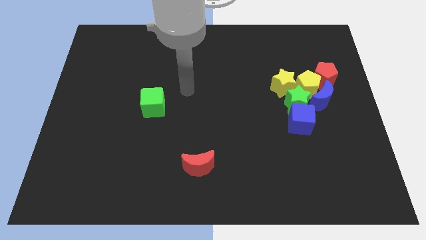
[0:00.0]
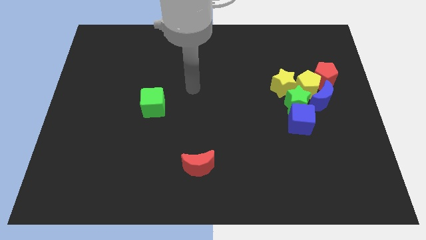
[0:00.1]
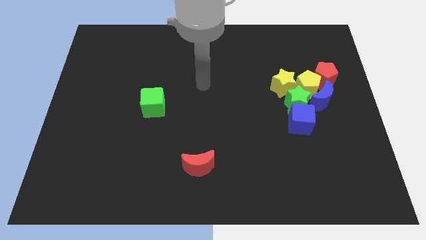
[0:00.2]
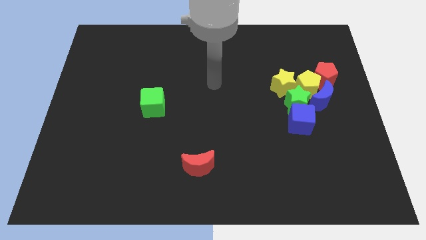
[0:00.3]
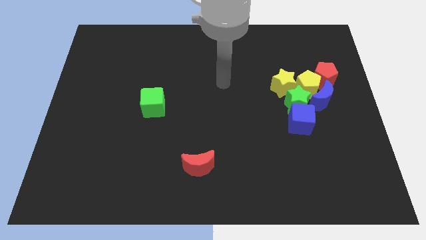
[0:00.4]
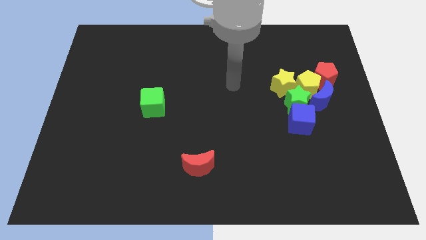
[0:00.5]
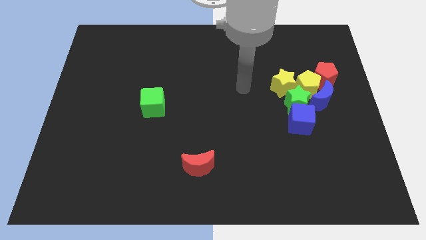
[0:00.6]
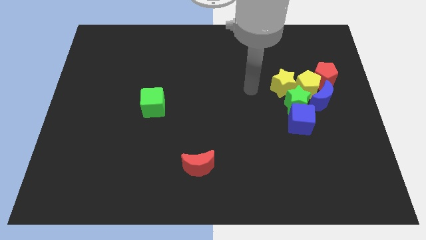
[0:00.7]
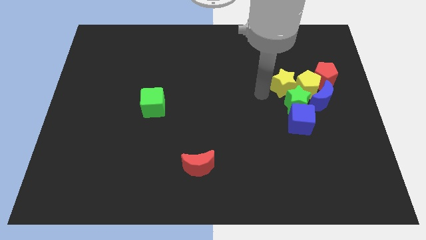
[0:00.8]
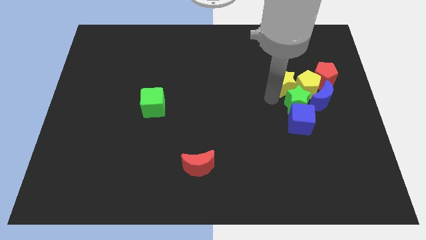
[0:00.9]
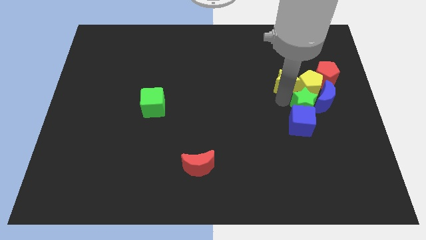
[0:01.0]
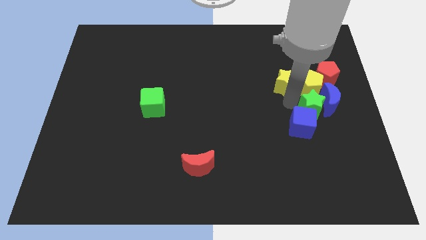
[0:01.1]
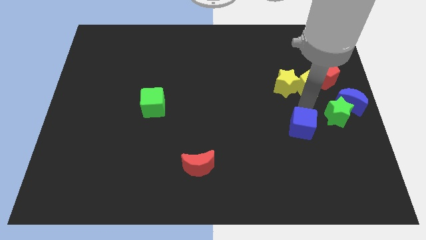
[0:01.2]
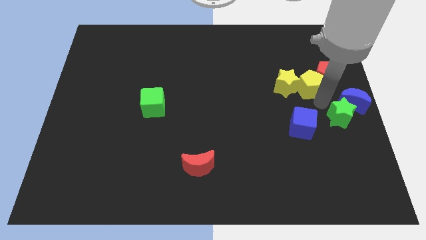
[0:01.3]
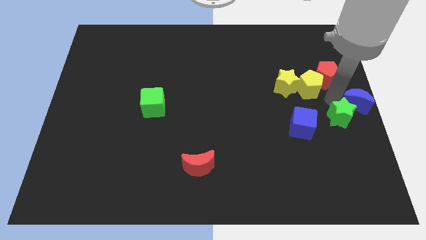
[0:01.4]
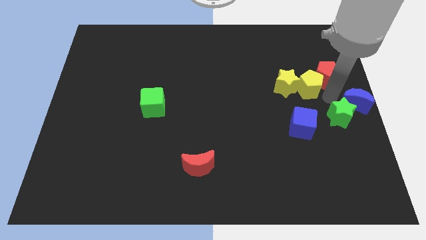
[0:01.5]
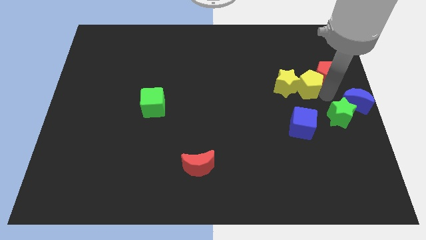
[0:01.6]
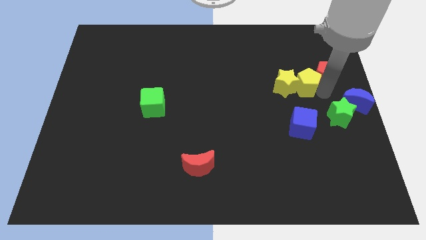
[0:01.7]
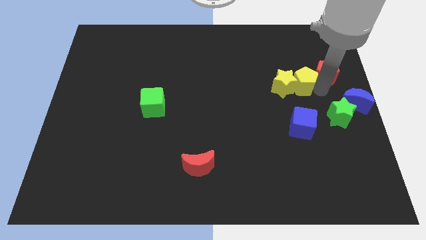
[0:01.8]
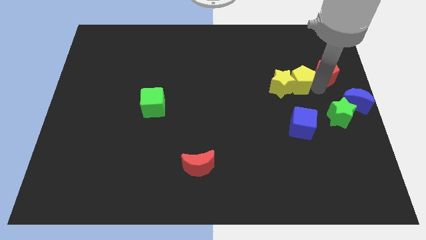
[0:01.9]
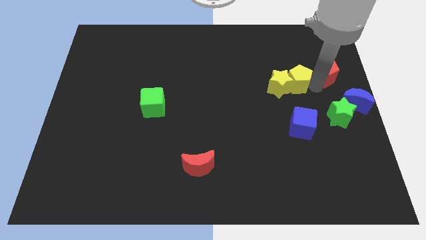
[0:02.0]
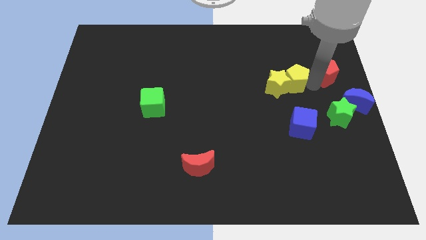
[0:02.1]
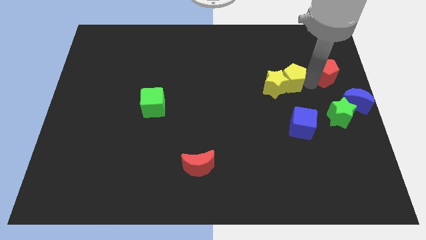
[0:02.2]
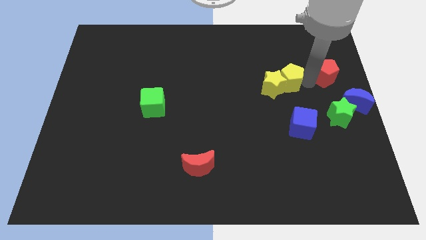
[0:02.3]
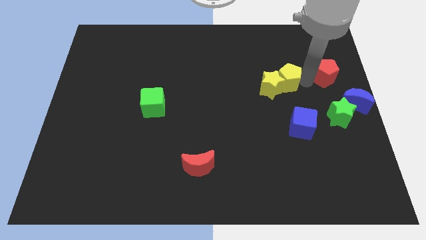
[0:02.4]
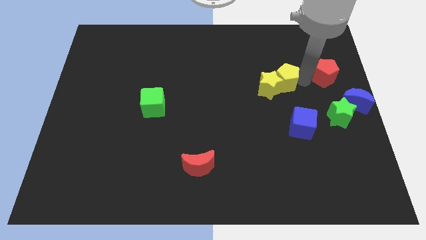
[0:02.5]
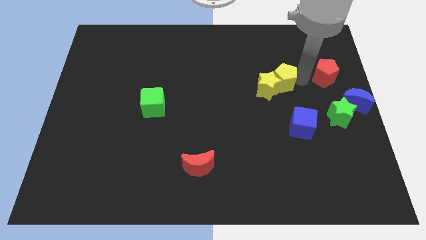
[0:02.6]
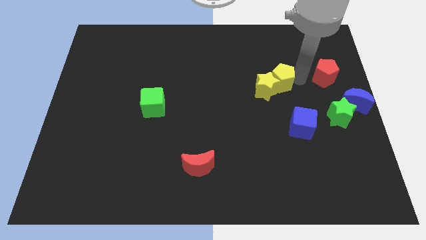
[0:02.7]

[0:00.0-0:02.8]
separate the yellow pentagon from the clump

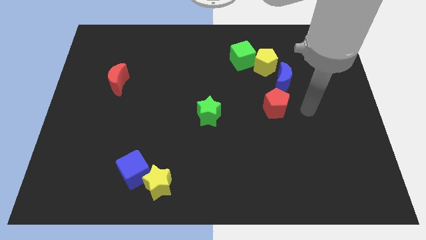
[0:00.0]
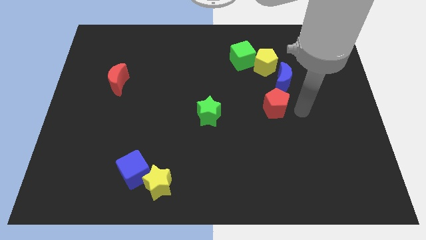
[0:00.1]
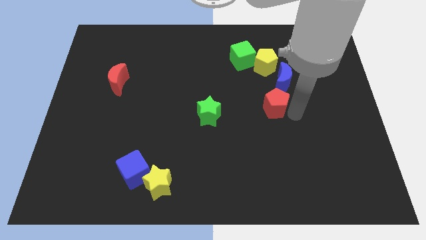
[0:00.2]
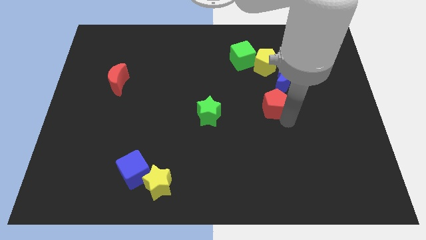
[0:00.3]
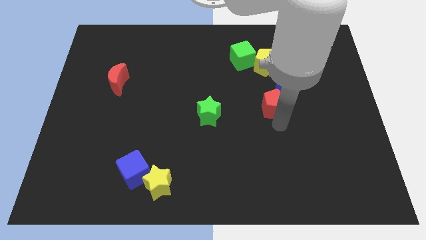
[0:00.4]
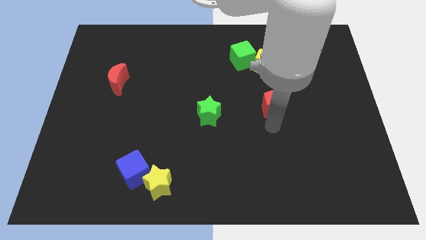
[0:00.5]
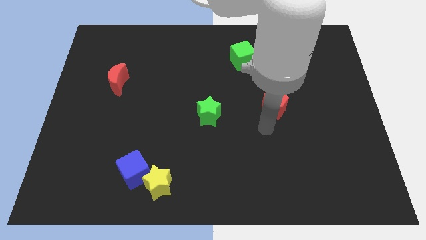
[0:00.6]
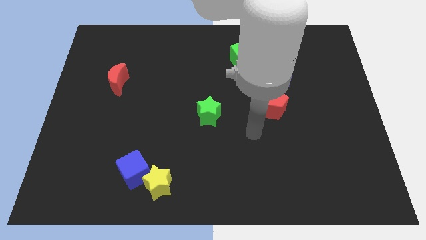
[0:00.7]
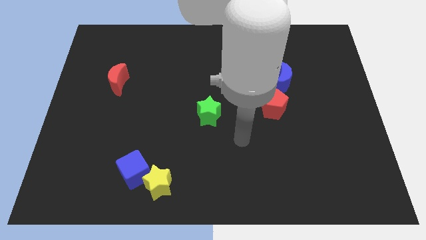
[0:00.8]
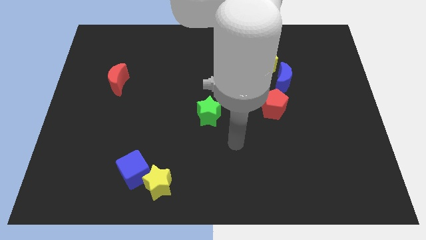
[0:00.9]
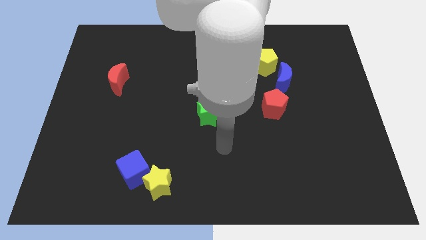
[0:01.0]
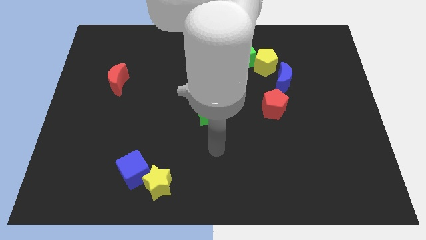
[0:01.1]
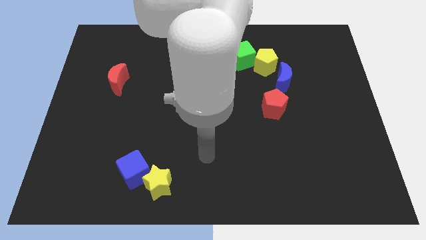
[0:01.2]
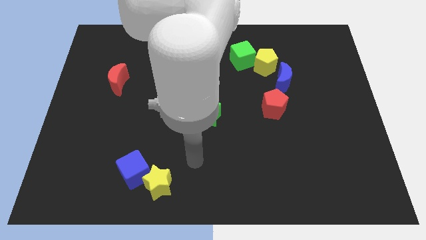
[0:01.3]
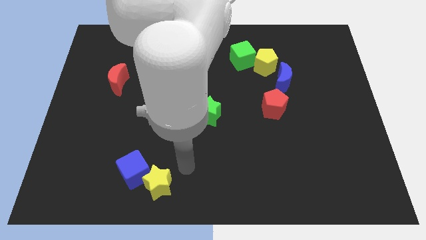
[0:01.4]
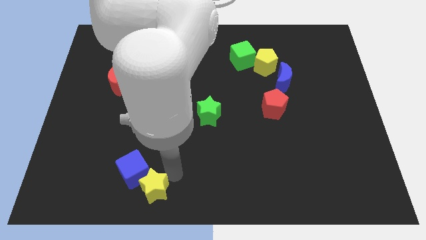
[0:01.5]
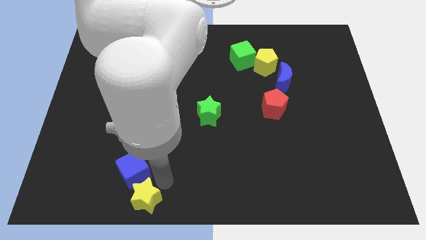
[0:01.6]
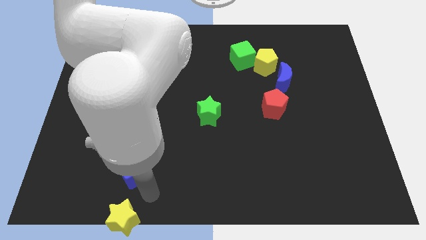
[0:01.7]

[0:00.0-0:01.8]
pull the blue cube apart from the yellow star

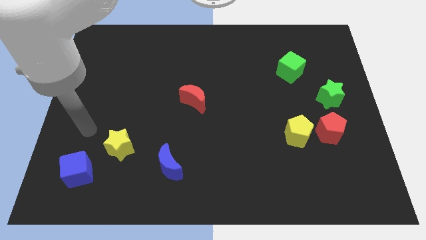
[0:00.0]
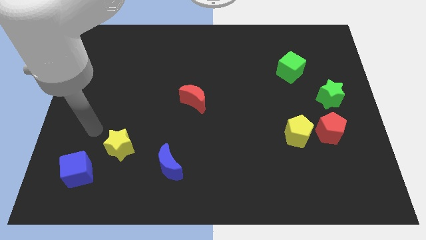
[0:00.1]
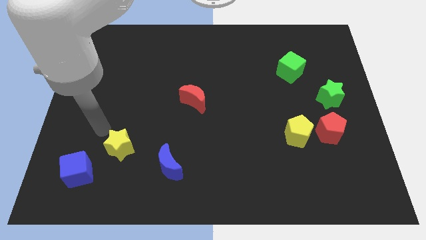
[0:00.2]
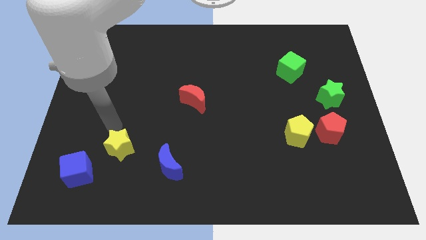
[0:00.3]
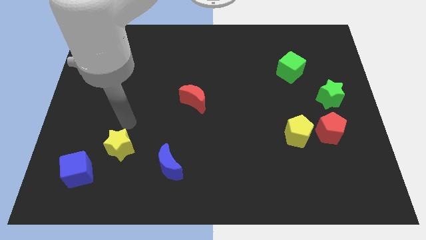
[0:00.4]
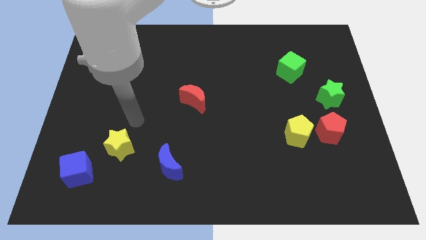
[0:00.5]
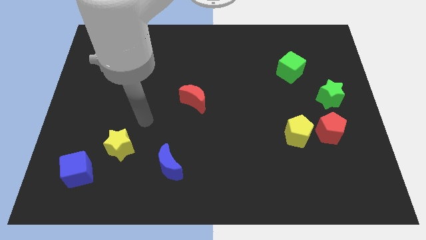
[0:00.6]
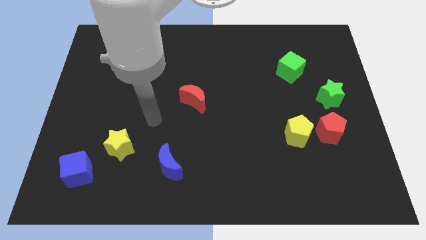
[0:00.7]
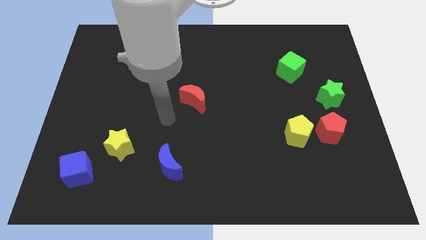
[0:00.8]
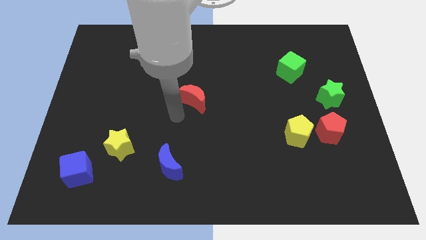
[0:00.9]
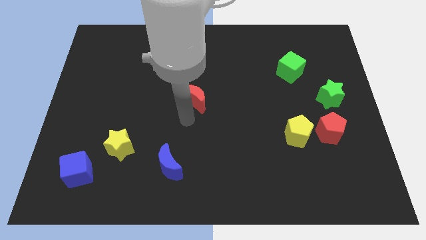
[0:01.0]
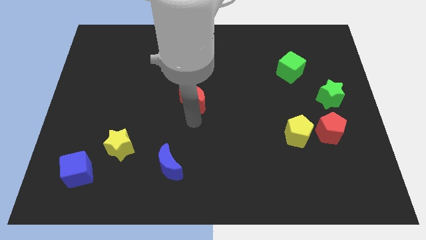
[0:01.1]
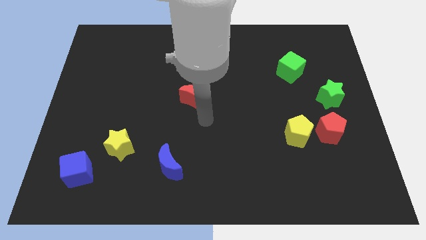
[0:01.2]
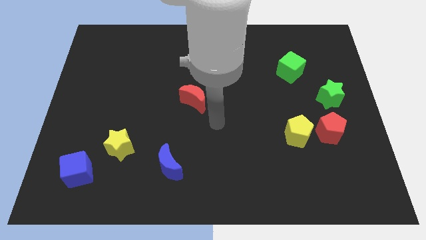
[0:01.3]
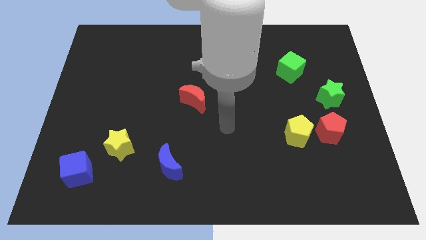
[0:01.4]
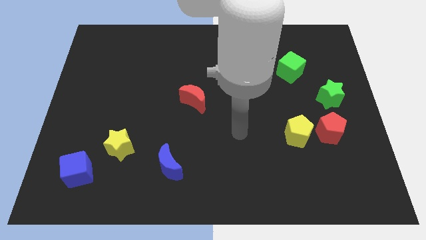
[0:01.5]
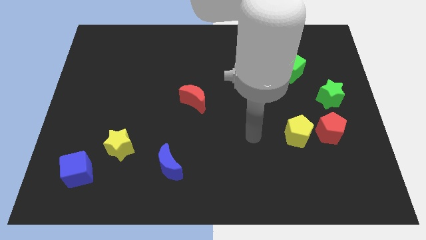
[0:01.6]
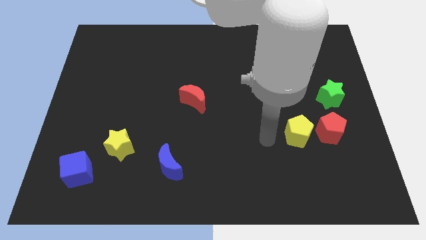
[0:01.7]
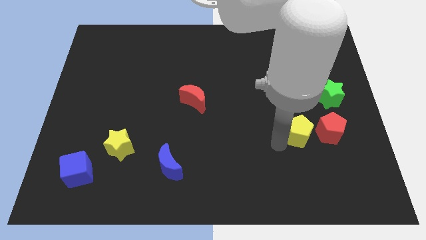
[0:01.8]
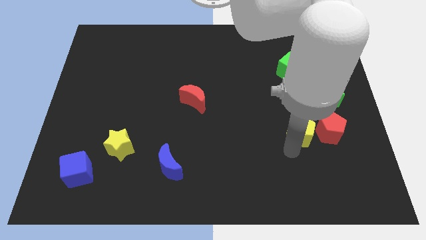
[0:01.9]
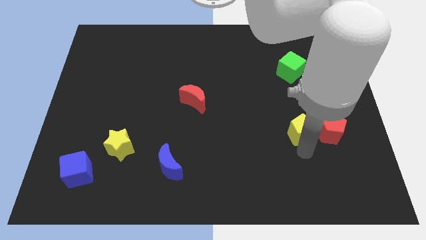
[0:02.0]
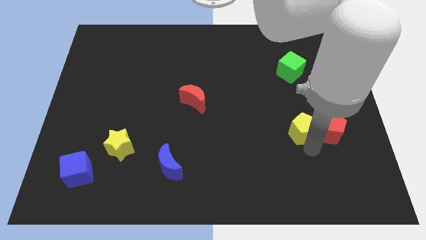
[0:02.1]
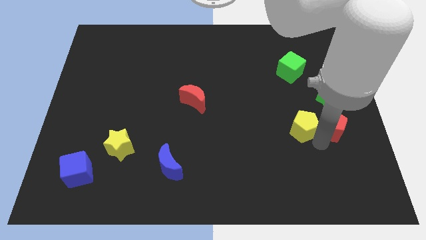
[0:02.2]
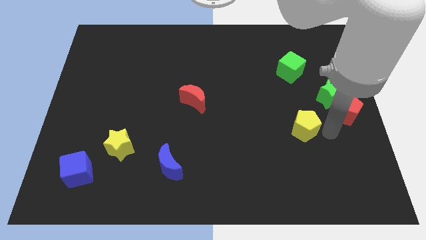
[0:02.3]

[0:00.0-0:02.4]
move the yellow pentagon away from the red pentagon

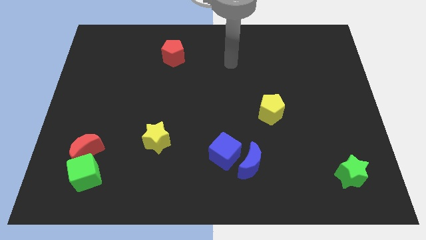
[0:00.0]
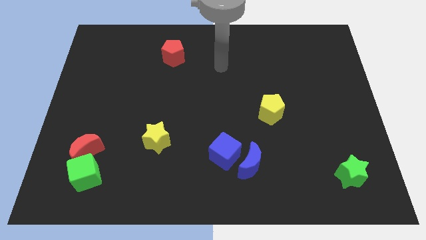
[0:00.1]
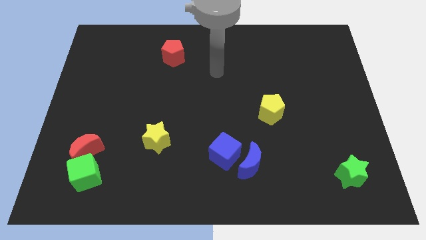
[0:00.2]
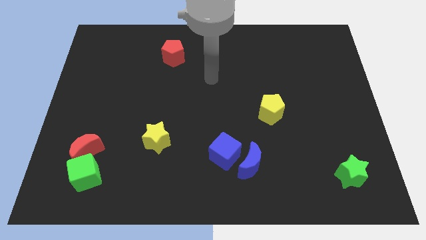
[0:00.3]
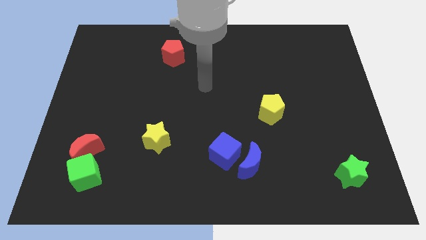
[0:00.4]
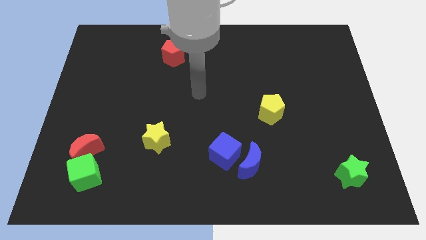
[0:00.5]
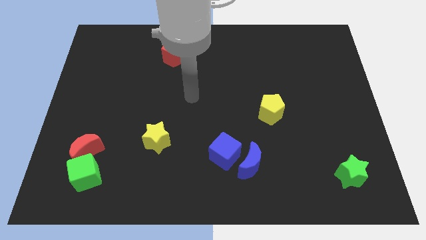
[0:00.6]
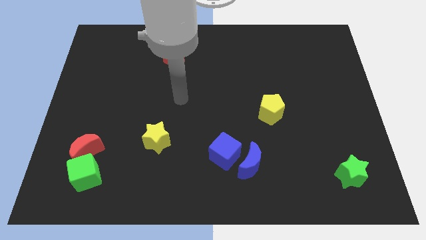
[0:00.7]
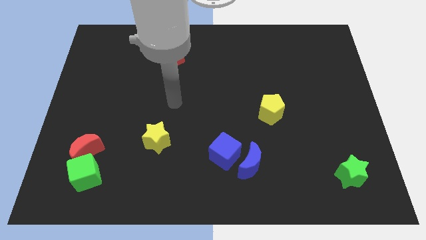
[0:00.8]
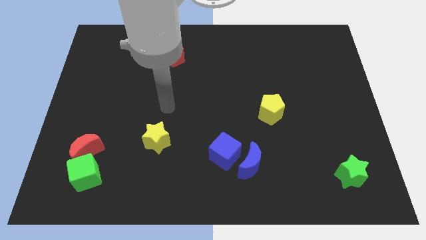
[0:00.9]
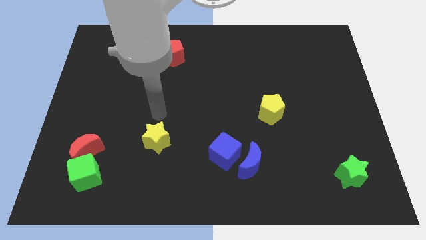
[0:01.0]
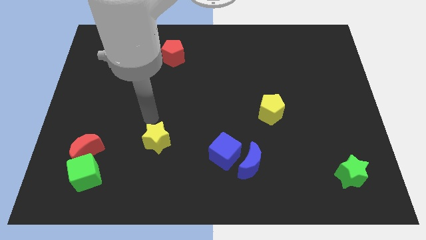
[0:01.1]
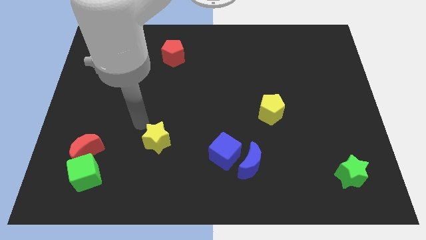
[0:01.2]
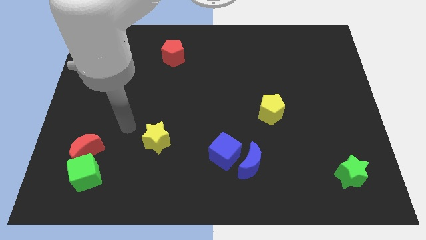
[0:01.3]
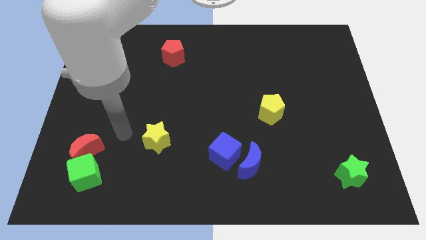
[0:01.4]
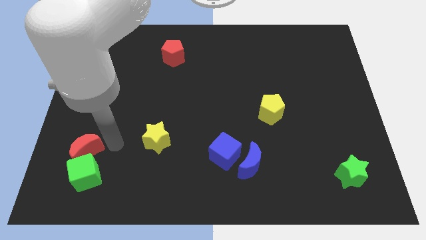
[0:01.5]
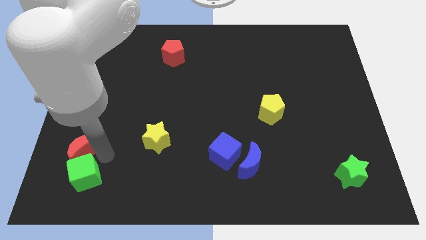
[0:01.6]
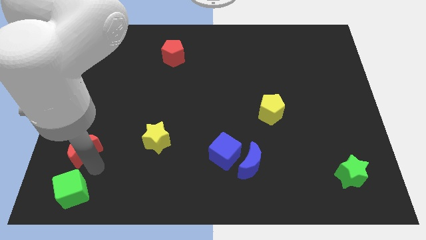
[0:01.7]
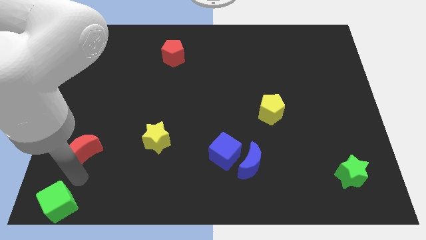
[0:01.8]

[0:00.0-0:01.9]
pull the red moon apart from the green cube

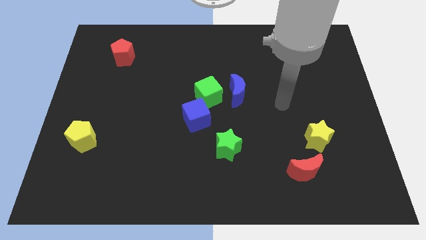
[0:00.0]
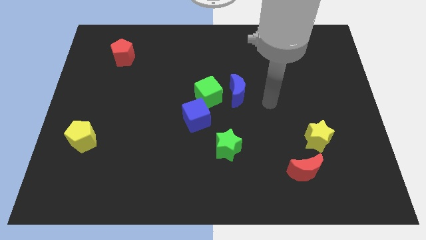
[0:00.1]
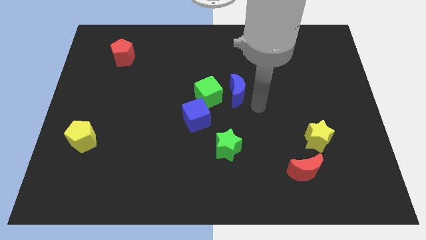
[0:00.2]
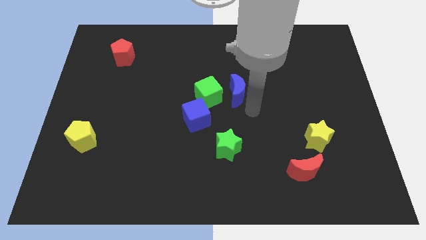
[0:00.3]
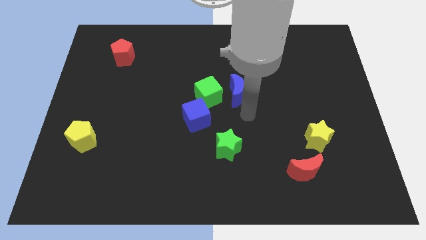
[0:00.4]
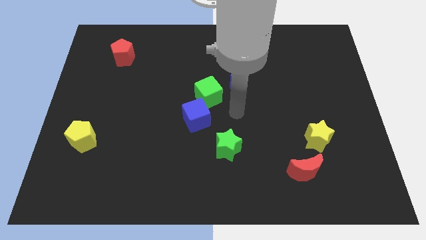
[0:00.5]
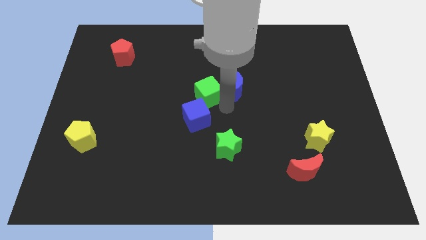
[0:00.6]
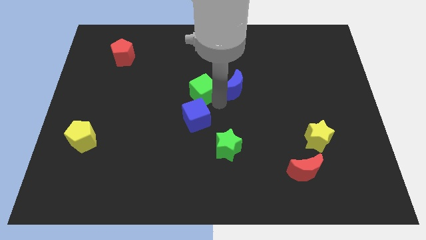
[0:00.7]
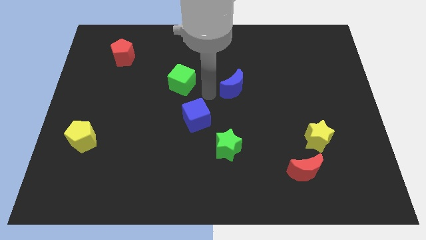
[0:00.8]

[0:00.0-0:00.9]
move the blue moon away from the green cube
